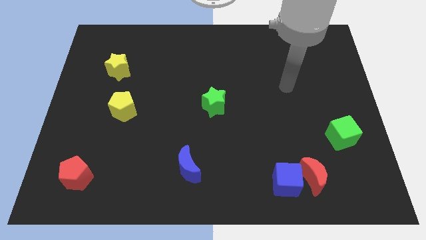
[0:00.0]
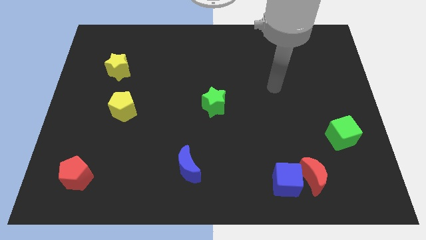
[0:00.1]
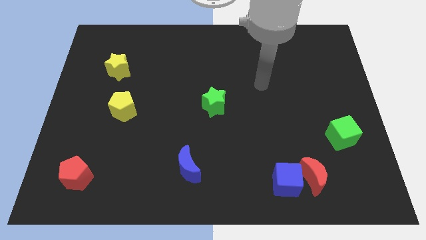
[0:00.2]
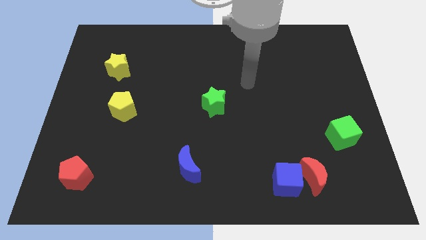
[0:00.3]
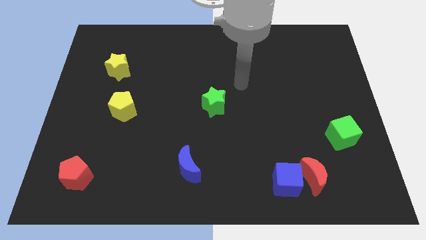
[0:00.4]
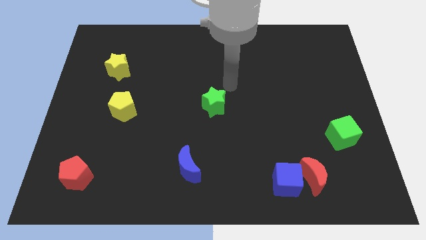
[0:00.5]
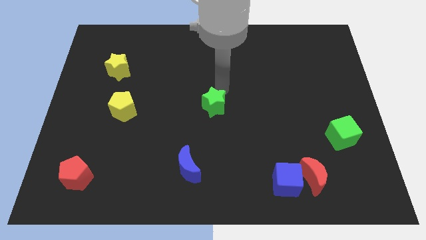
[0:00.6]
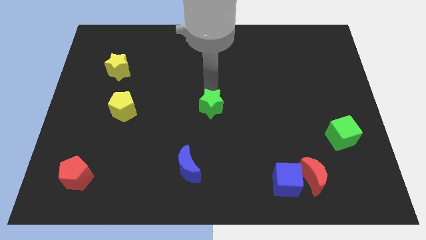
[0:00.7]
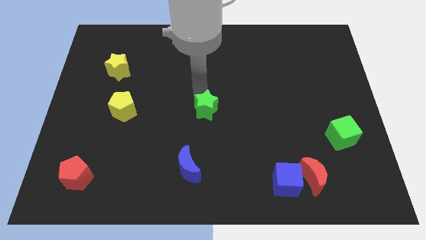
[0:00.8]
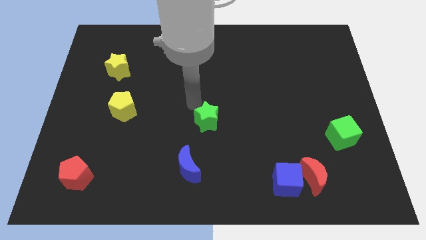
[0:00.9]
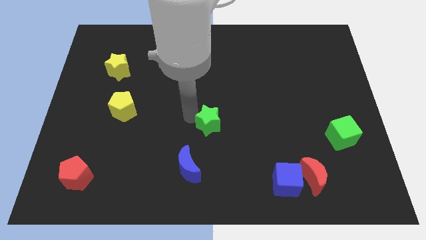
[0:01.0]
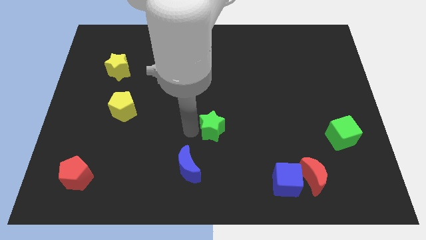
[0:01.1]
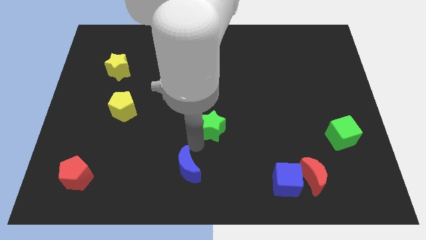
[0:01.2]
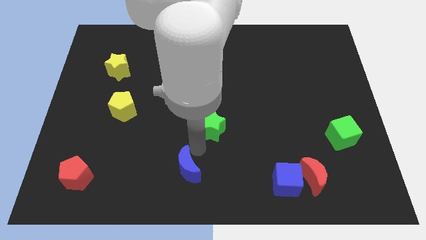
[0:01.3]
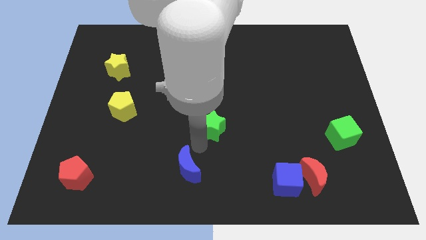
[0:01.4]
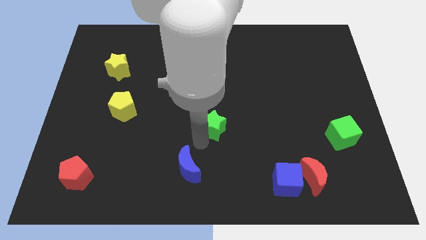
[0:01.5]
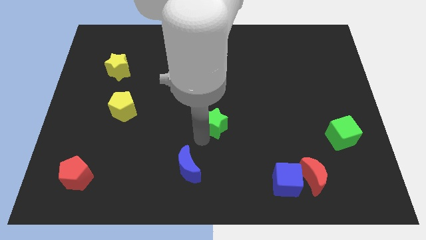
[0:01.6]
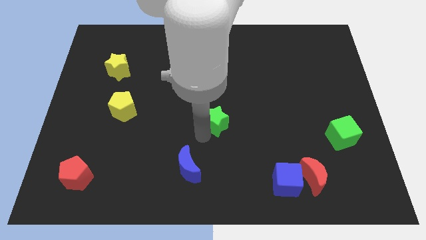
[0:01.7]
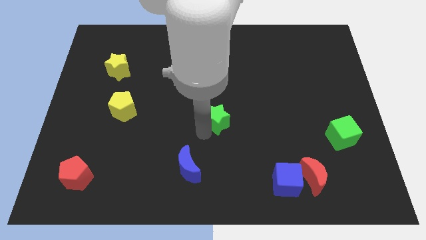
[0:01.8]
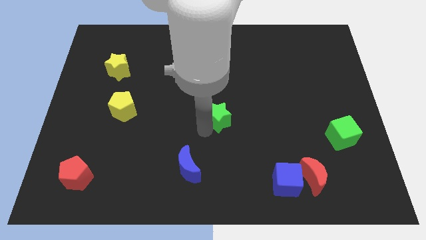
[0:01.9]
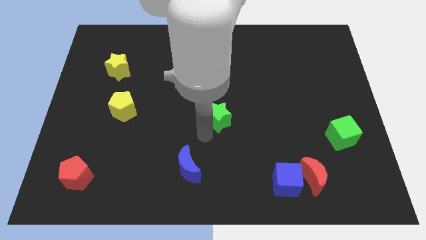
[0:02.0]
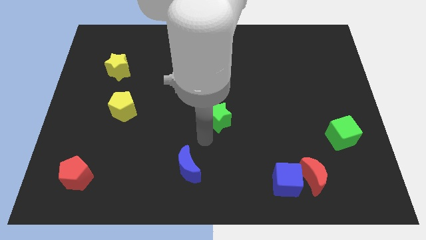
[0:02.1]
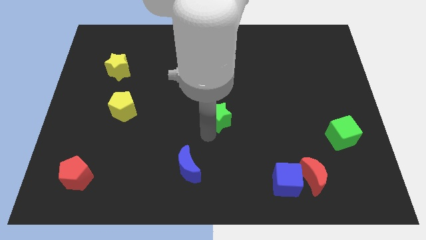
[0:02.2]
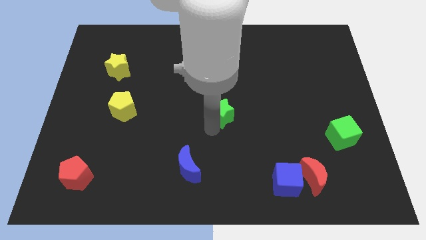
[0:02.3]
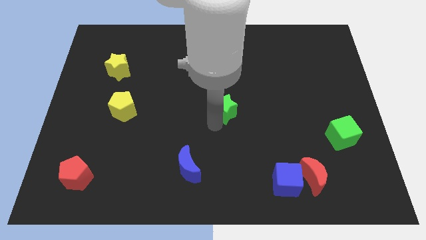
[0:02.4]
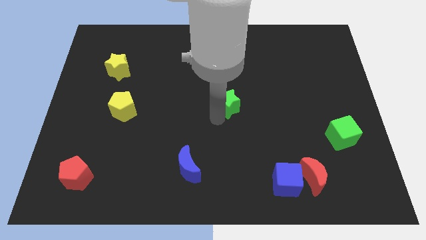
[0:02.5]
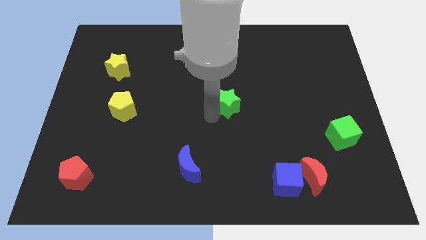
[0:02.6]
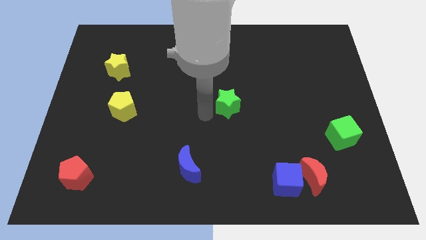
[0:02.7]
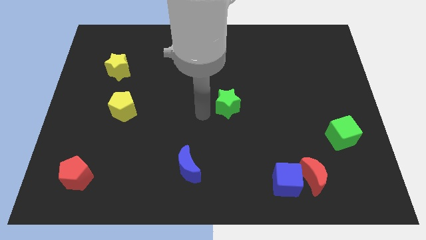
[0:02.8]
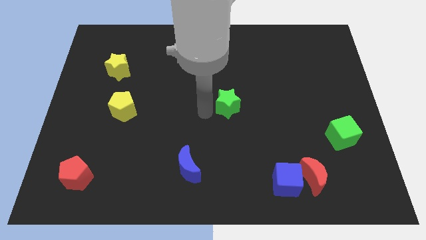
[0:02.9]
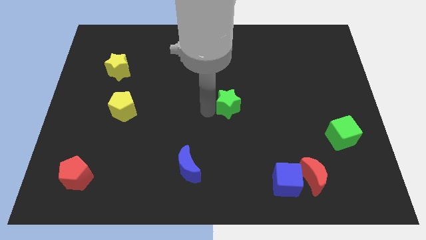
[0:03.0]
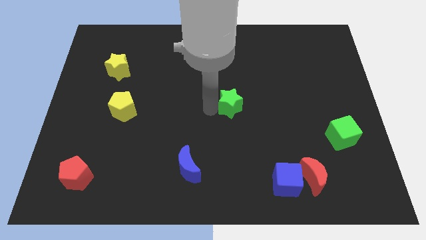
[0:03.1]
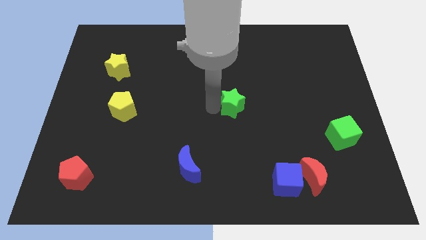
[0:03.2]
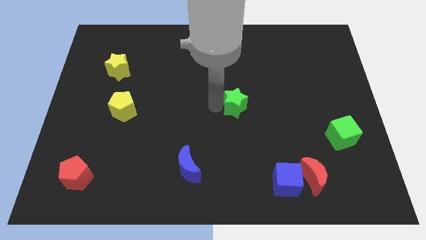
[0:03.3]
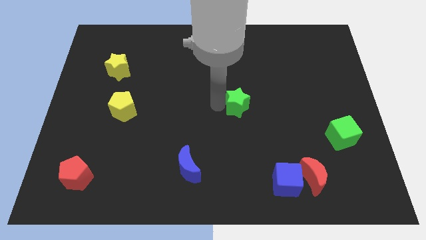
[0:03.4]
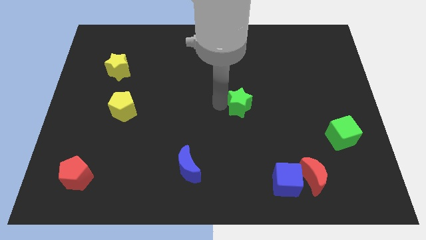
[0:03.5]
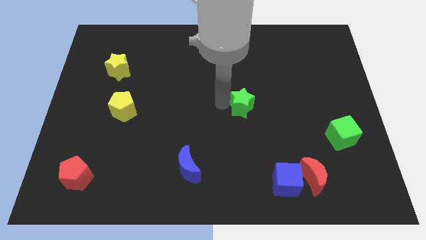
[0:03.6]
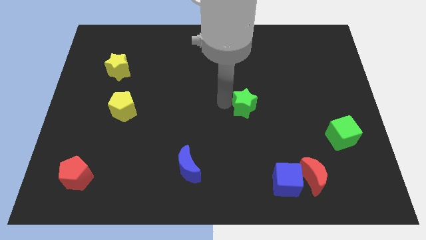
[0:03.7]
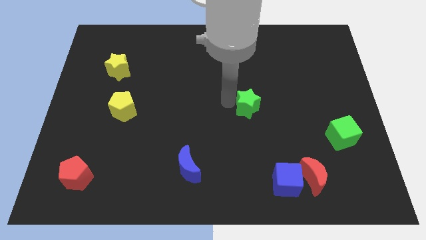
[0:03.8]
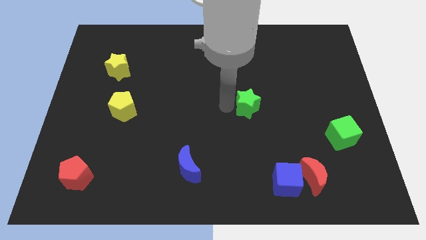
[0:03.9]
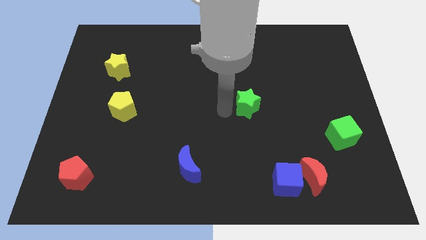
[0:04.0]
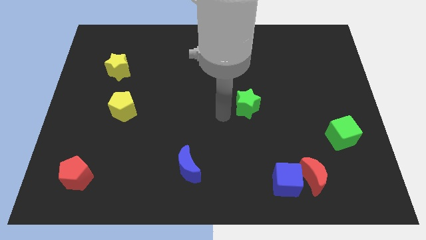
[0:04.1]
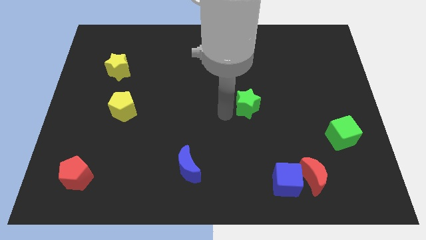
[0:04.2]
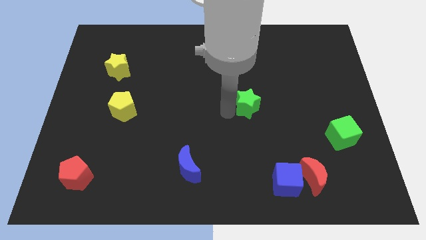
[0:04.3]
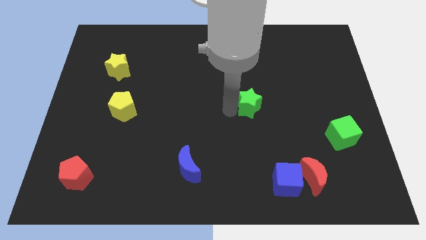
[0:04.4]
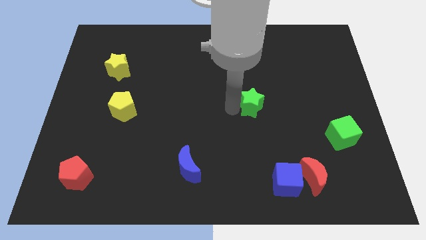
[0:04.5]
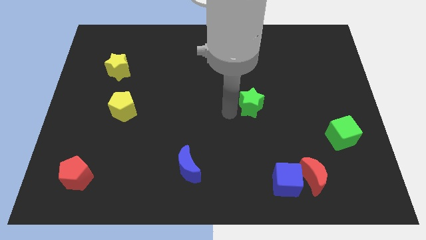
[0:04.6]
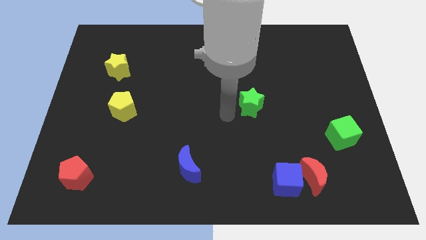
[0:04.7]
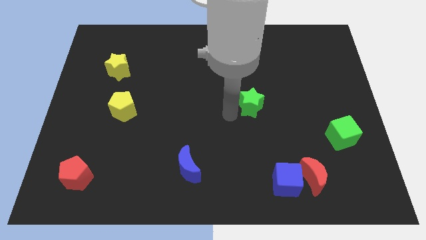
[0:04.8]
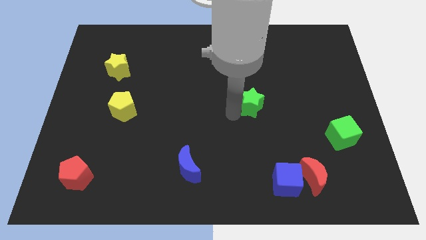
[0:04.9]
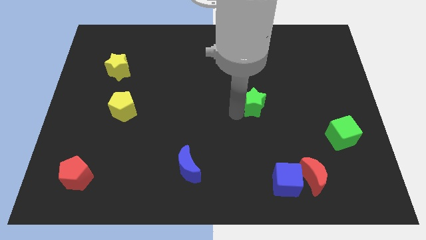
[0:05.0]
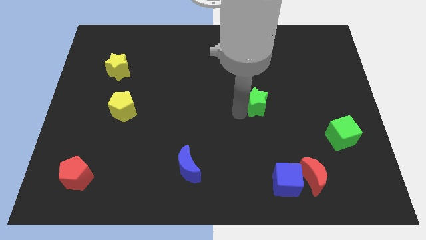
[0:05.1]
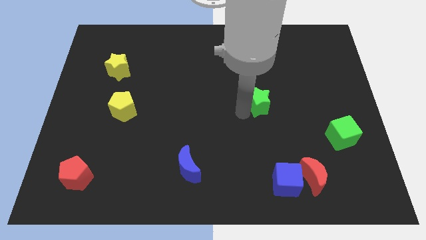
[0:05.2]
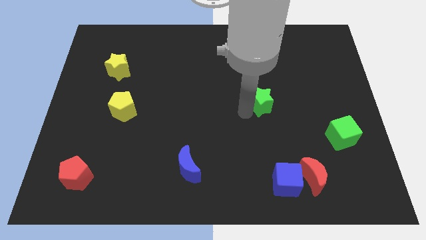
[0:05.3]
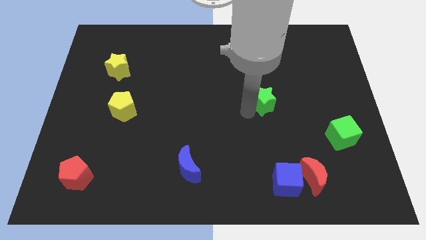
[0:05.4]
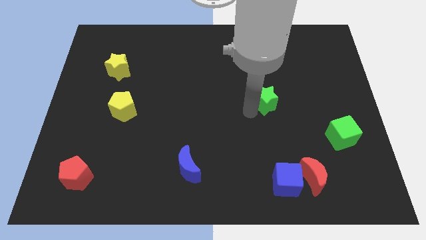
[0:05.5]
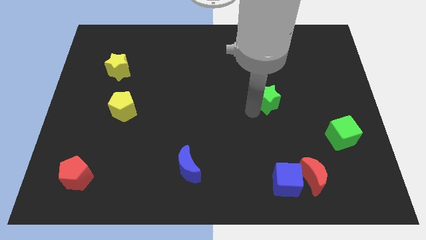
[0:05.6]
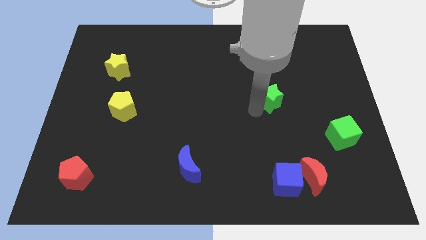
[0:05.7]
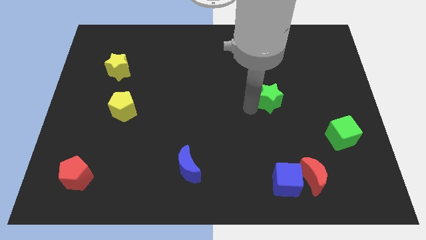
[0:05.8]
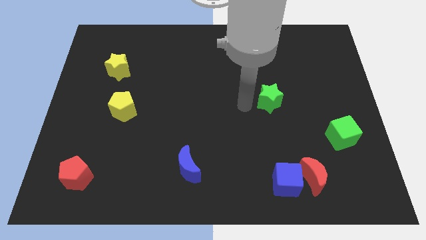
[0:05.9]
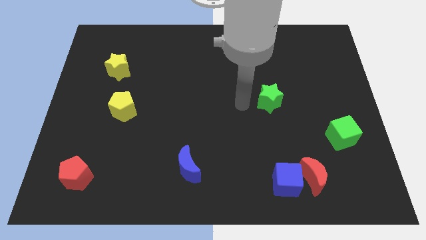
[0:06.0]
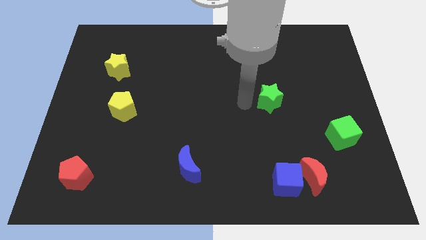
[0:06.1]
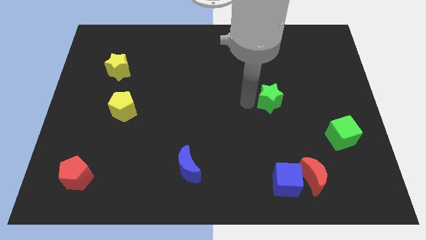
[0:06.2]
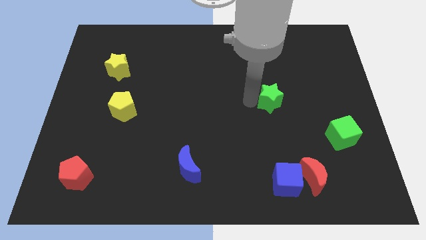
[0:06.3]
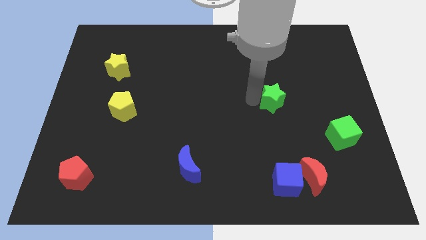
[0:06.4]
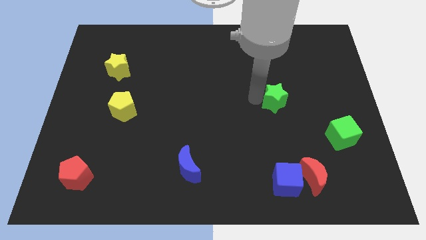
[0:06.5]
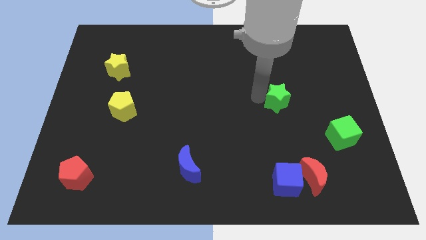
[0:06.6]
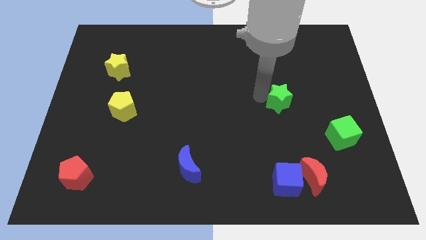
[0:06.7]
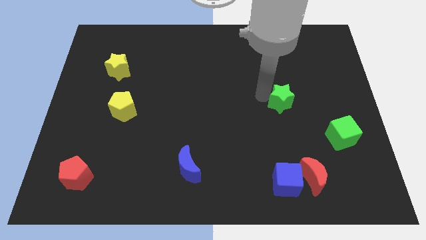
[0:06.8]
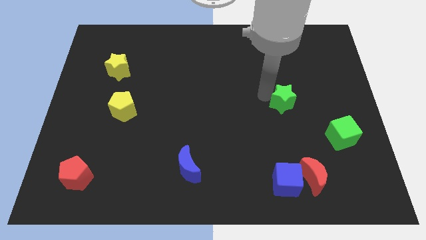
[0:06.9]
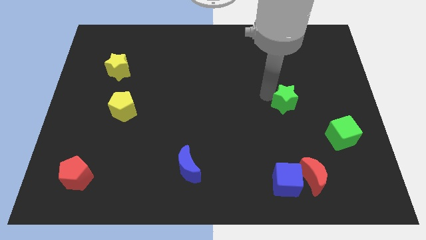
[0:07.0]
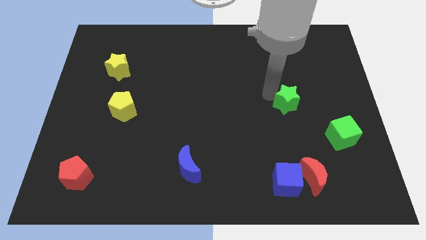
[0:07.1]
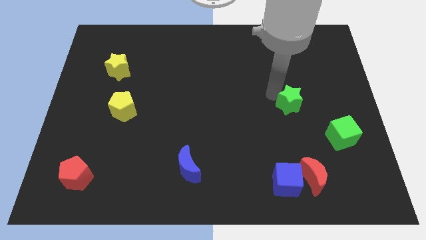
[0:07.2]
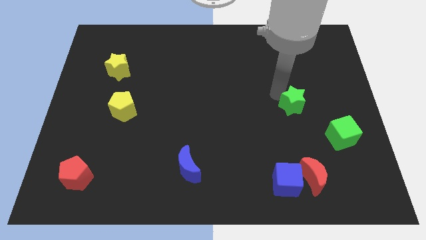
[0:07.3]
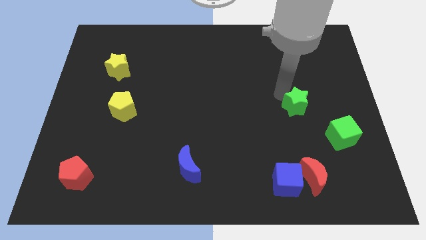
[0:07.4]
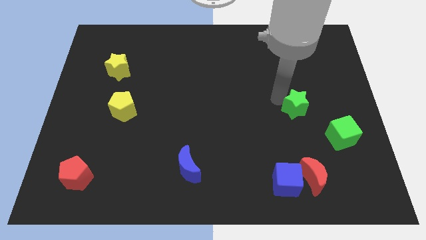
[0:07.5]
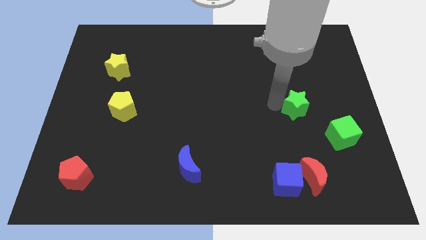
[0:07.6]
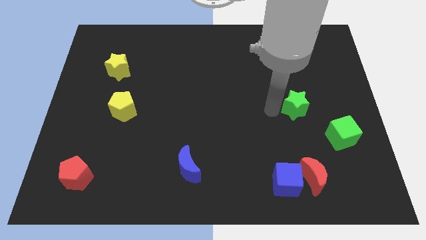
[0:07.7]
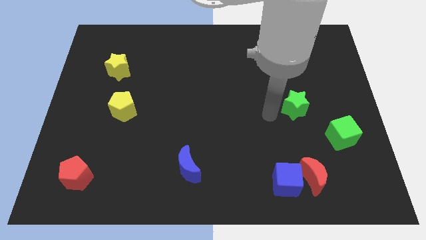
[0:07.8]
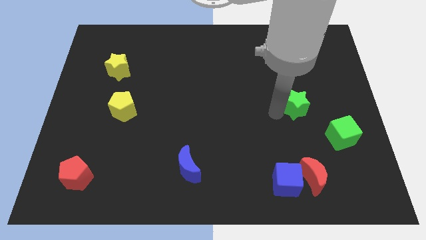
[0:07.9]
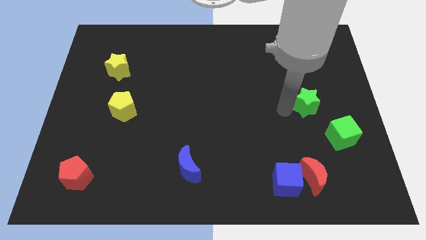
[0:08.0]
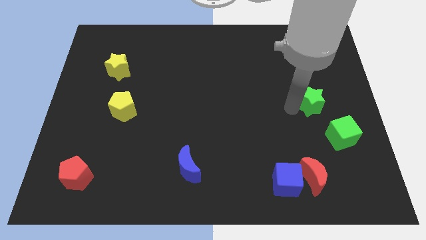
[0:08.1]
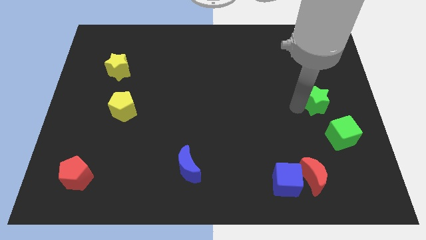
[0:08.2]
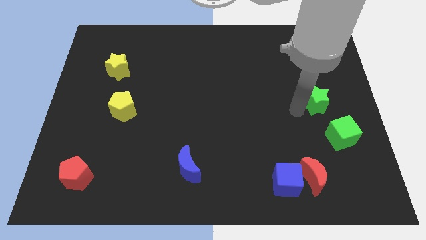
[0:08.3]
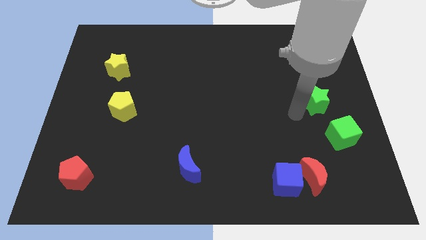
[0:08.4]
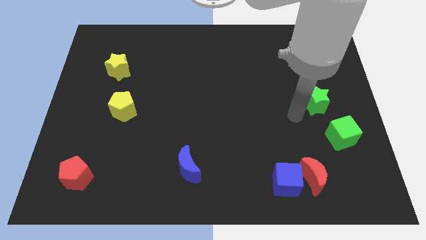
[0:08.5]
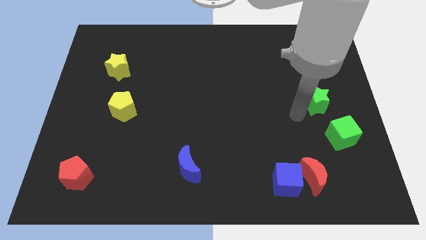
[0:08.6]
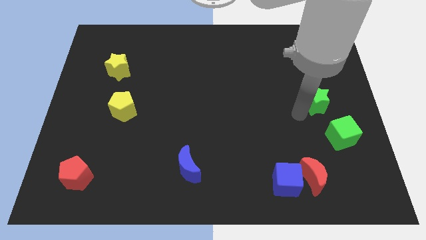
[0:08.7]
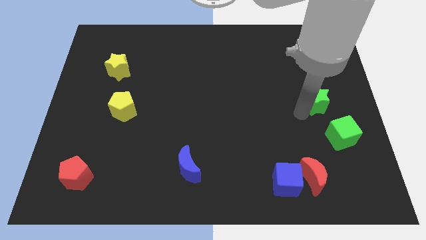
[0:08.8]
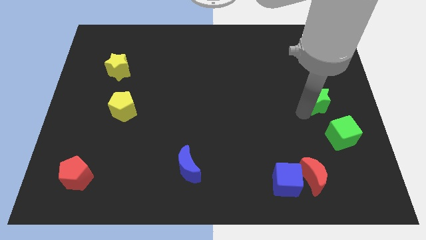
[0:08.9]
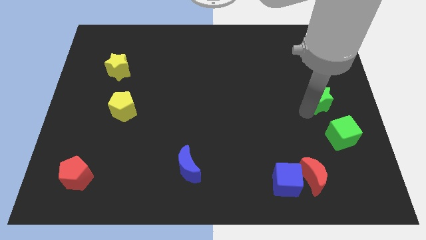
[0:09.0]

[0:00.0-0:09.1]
slide the green star to the center right
